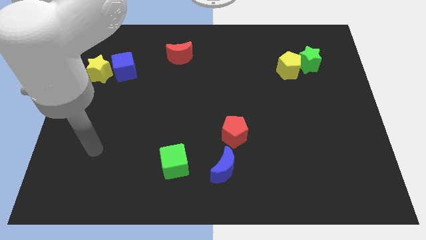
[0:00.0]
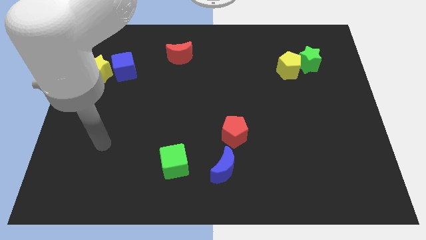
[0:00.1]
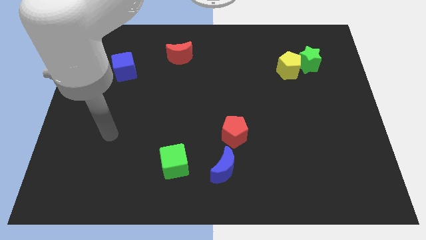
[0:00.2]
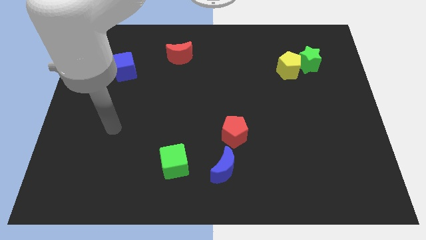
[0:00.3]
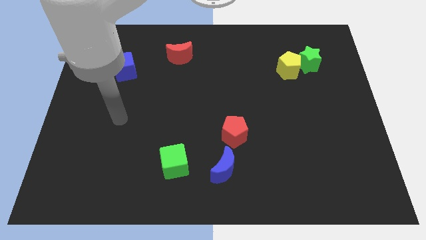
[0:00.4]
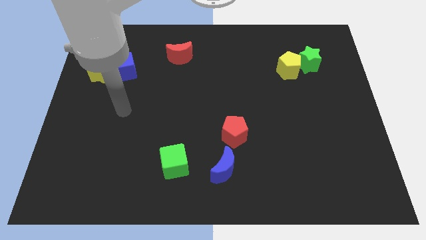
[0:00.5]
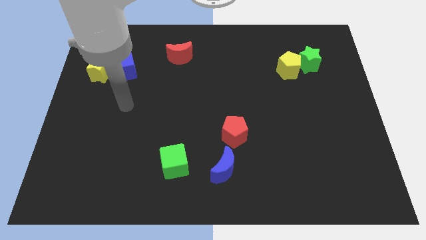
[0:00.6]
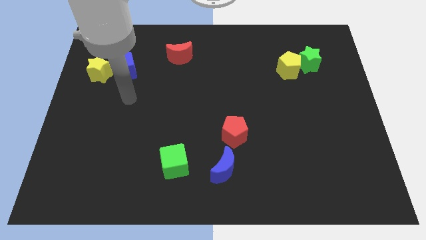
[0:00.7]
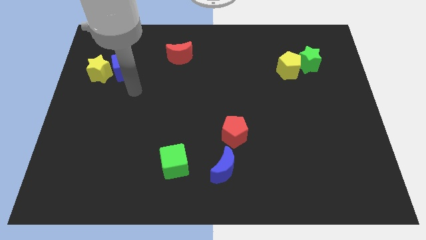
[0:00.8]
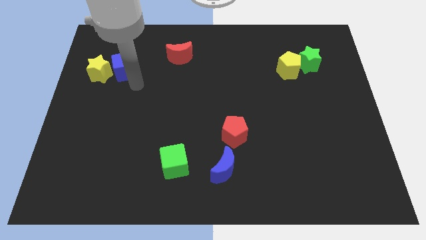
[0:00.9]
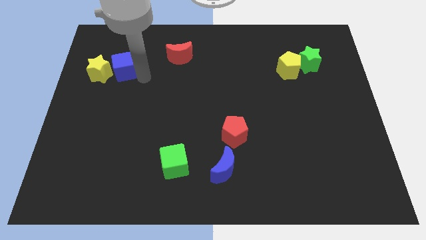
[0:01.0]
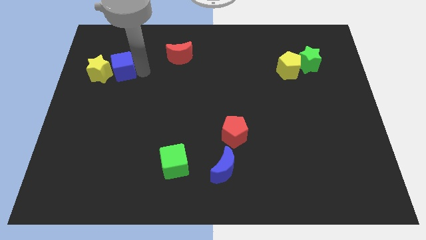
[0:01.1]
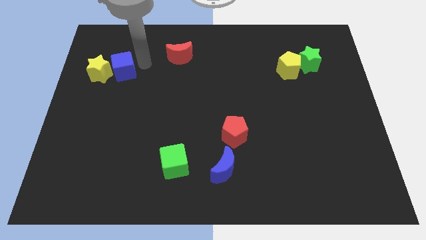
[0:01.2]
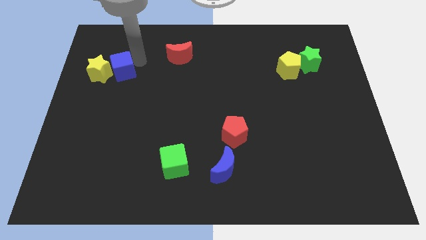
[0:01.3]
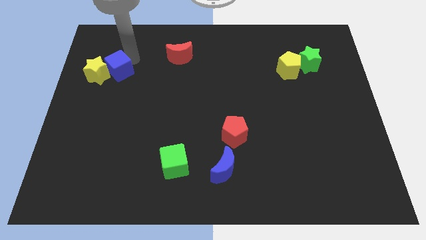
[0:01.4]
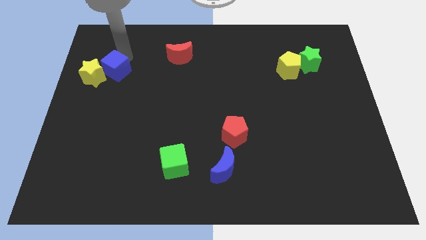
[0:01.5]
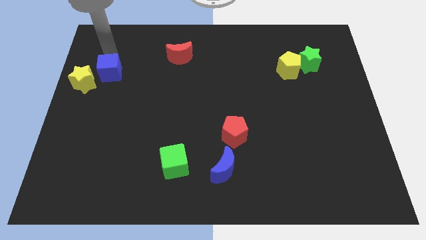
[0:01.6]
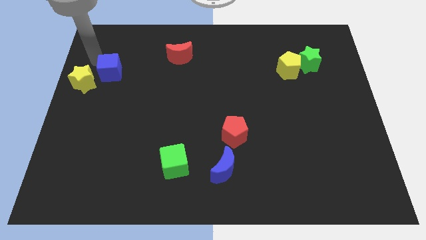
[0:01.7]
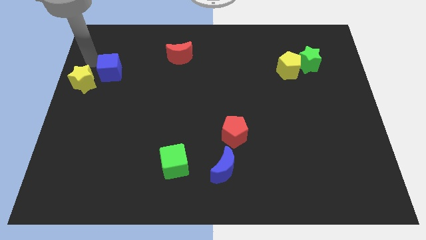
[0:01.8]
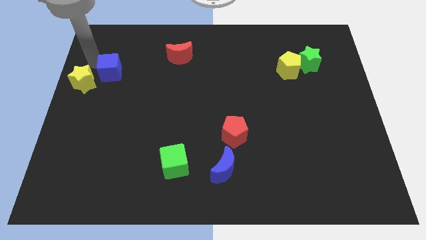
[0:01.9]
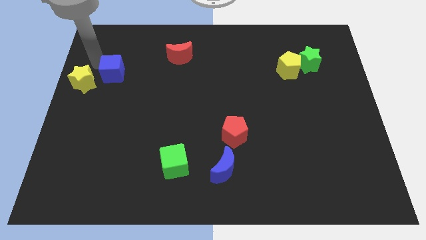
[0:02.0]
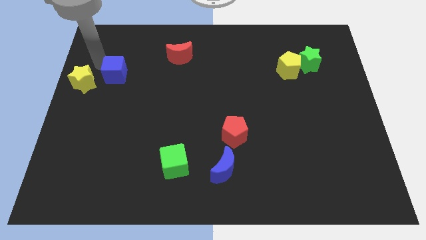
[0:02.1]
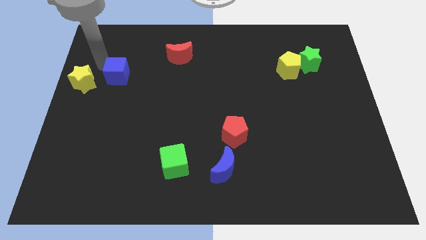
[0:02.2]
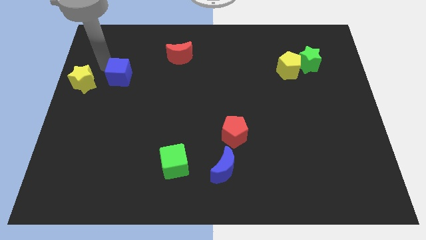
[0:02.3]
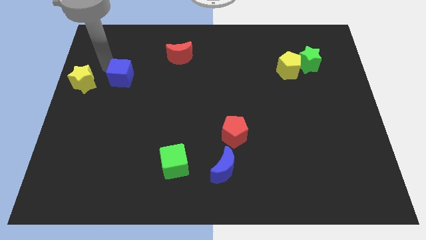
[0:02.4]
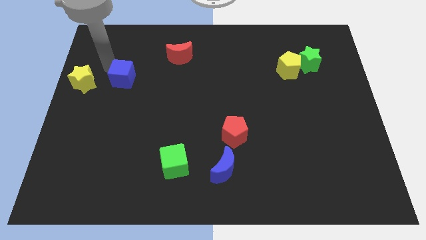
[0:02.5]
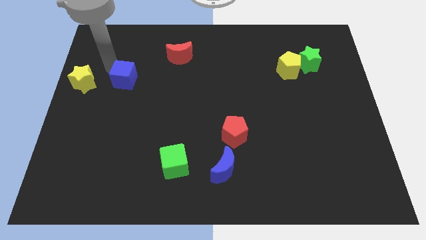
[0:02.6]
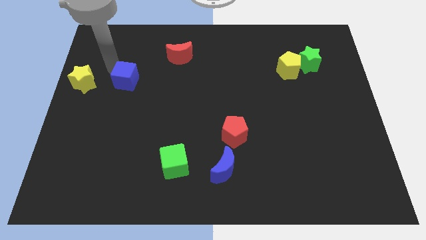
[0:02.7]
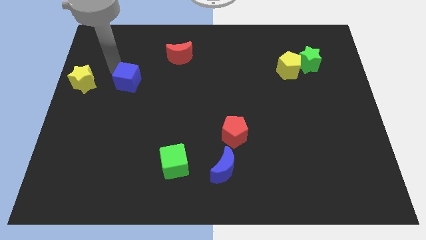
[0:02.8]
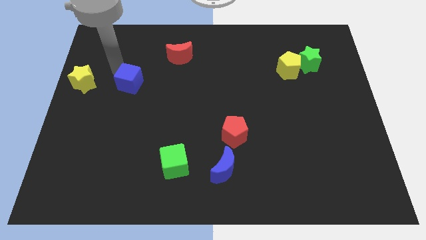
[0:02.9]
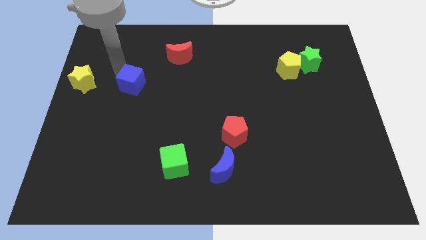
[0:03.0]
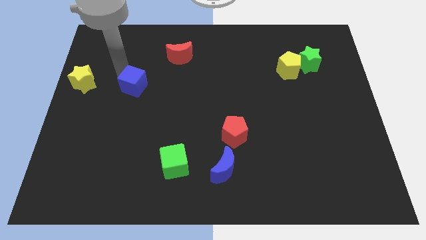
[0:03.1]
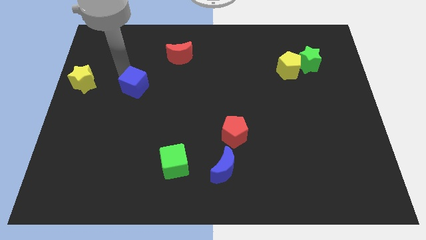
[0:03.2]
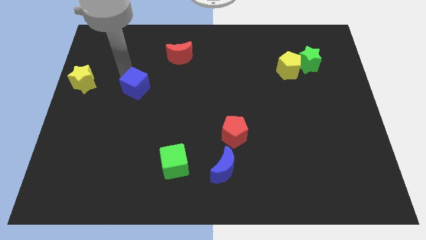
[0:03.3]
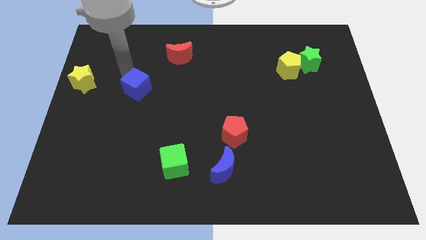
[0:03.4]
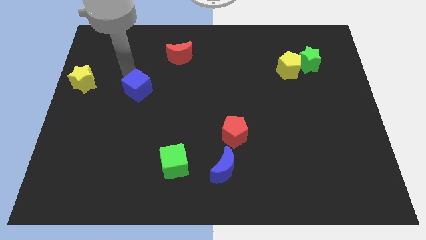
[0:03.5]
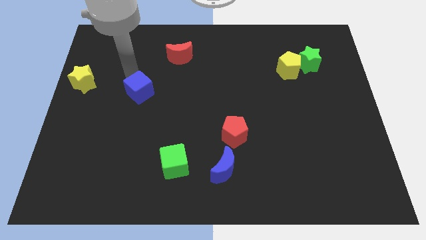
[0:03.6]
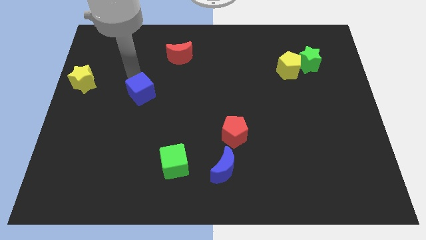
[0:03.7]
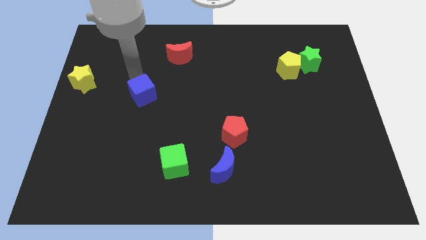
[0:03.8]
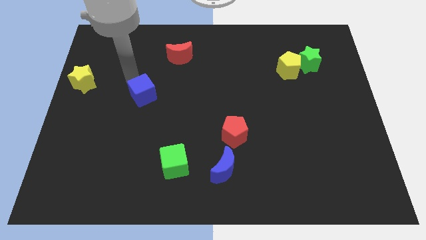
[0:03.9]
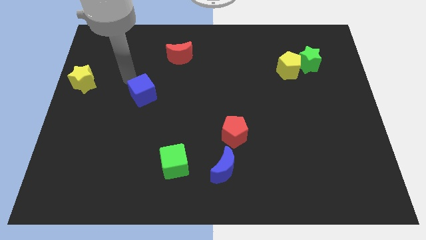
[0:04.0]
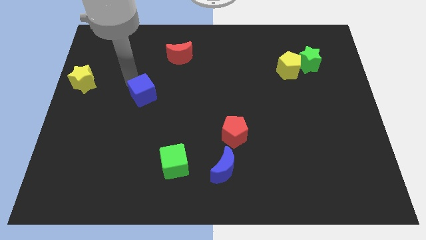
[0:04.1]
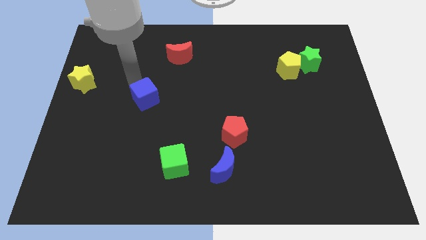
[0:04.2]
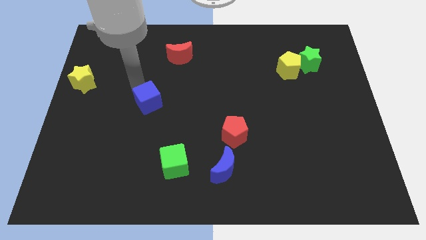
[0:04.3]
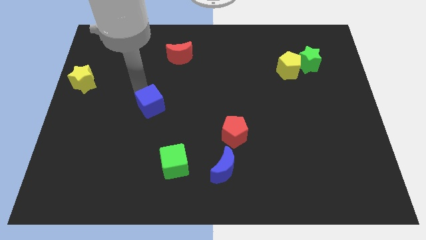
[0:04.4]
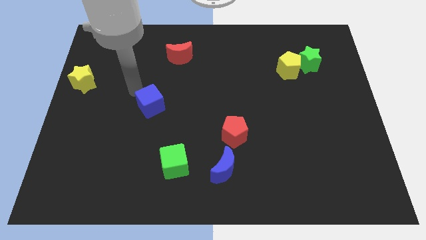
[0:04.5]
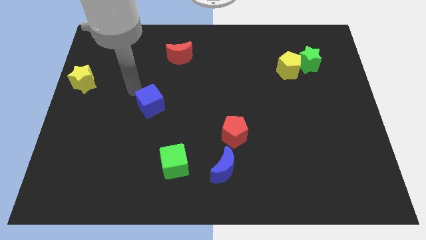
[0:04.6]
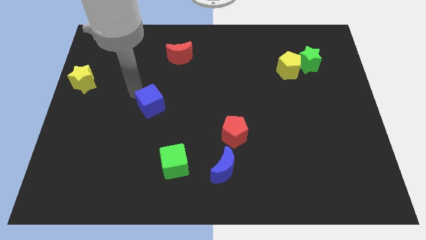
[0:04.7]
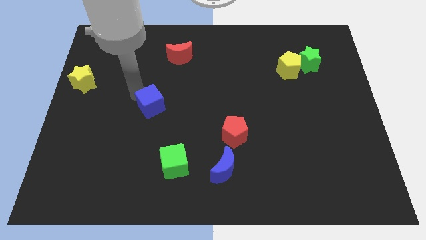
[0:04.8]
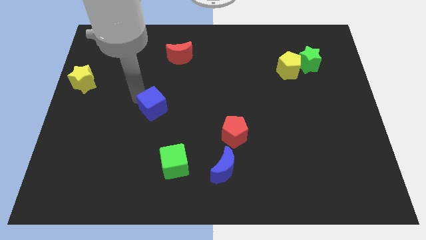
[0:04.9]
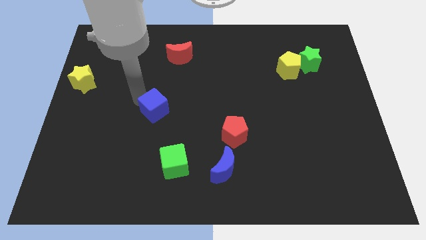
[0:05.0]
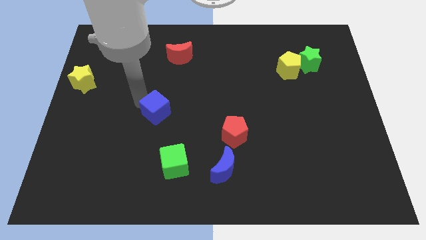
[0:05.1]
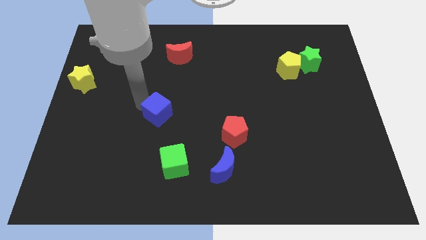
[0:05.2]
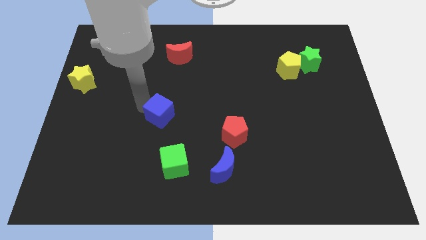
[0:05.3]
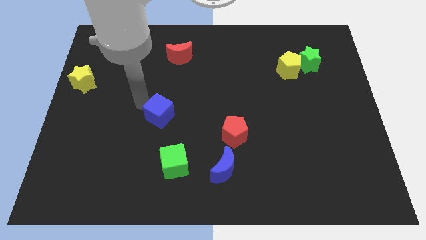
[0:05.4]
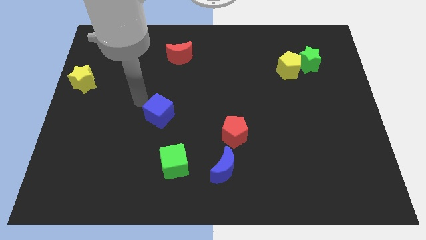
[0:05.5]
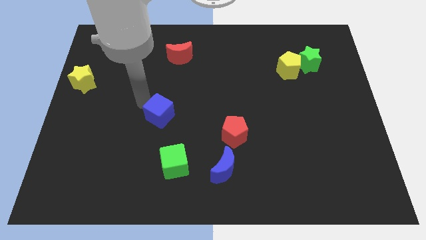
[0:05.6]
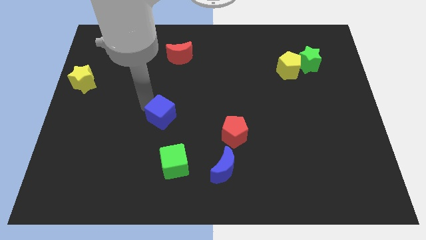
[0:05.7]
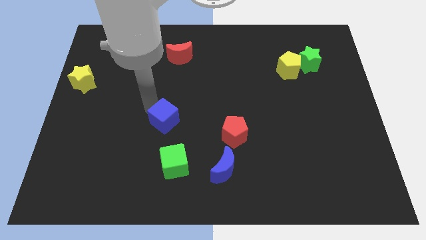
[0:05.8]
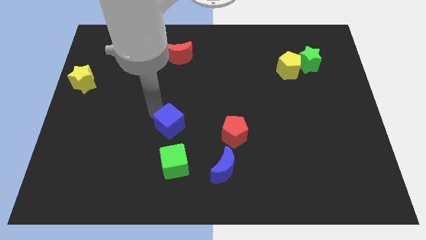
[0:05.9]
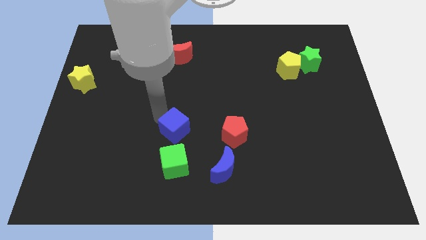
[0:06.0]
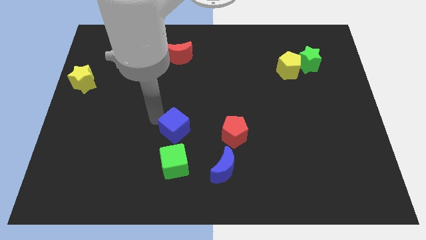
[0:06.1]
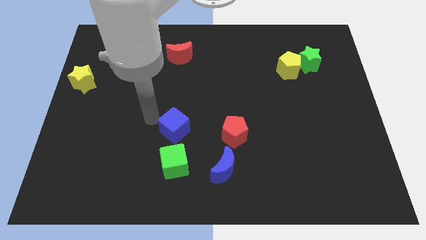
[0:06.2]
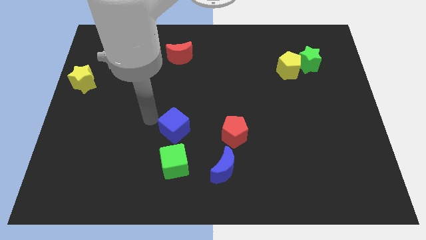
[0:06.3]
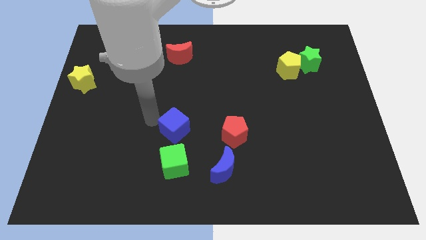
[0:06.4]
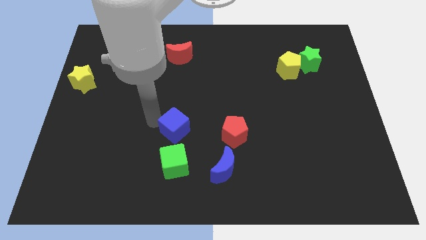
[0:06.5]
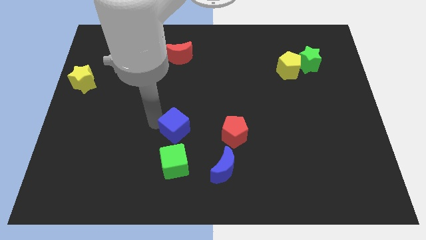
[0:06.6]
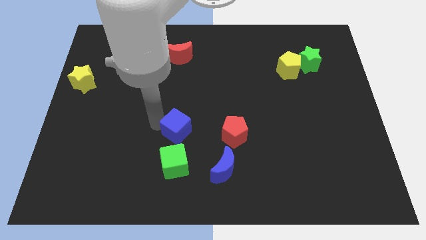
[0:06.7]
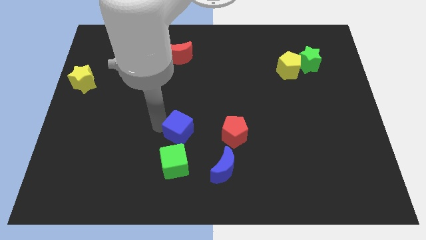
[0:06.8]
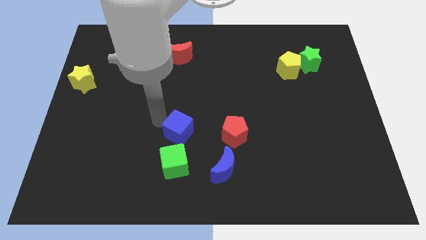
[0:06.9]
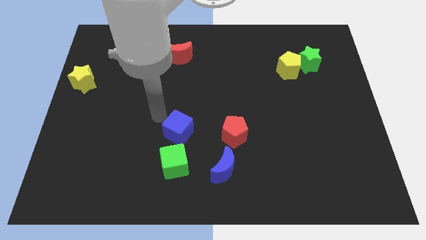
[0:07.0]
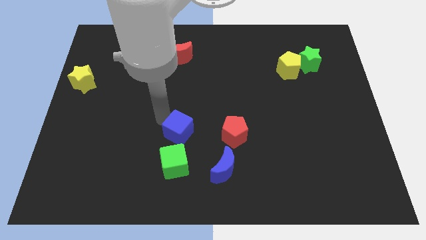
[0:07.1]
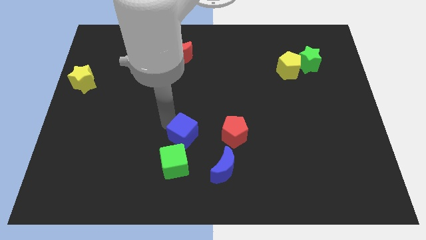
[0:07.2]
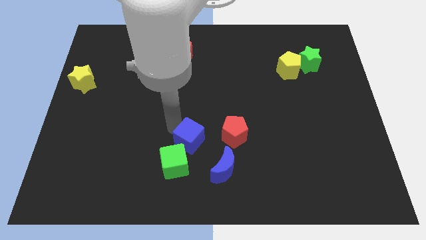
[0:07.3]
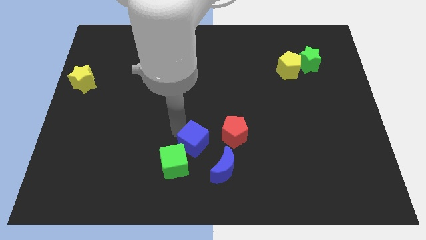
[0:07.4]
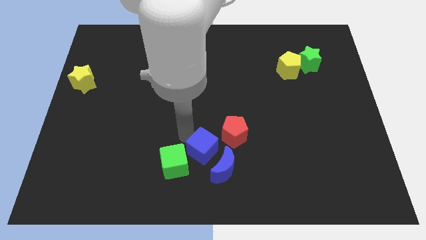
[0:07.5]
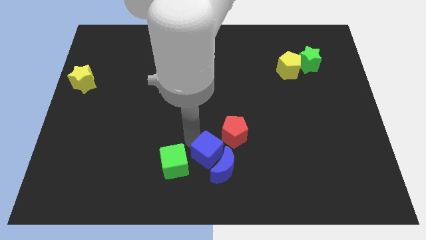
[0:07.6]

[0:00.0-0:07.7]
move the blue cube to the blue moon

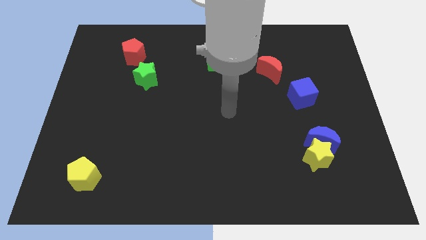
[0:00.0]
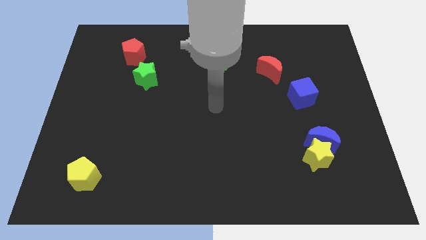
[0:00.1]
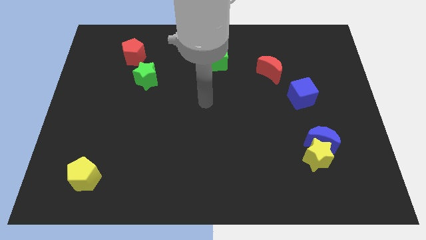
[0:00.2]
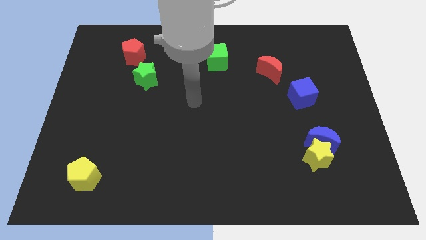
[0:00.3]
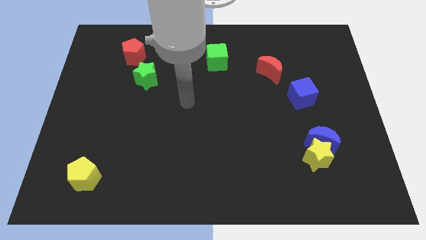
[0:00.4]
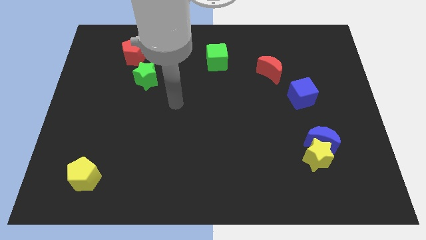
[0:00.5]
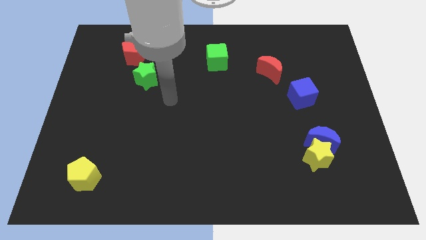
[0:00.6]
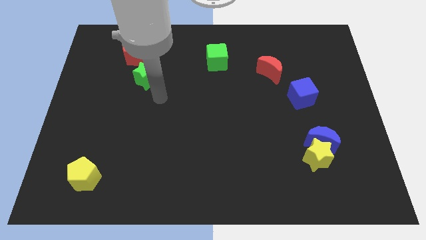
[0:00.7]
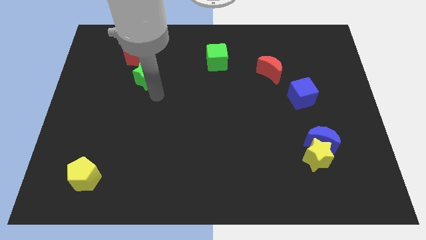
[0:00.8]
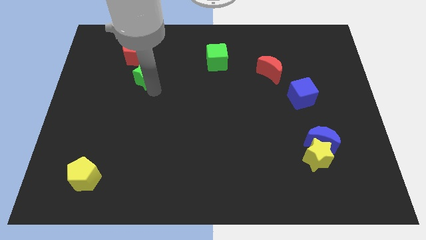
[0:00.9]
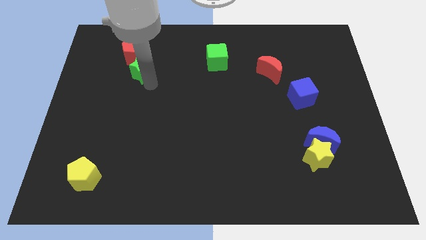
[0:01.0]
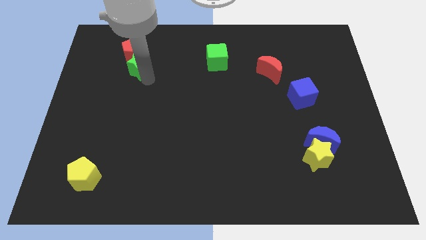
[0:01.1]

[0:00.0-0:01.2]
put the green star towards the red pentagon
